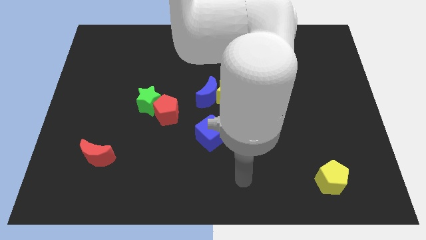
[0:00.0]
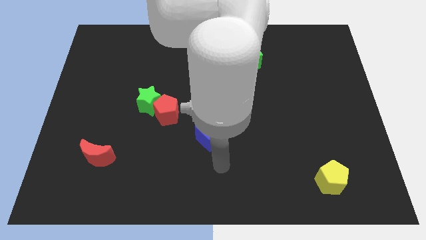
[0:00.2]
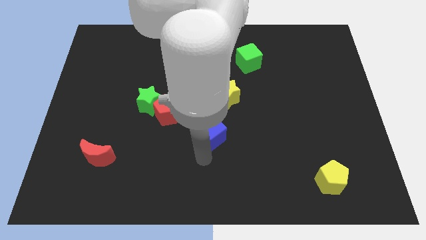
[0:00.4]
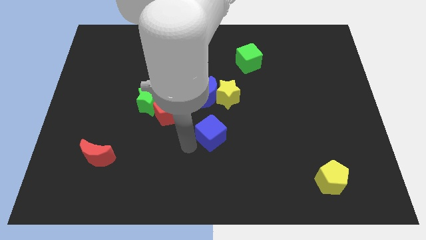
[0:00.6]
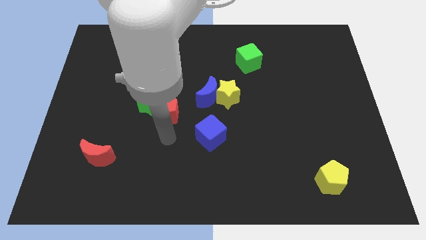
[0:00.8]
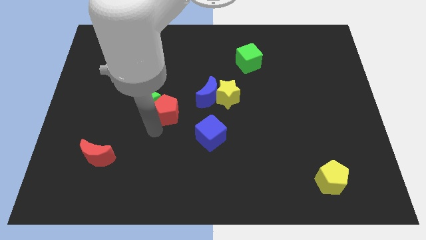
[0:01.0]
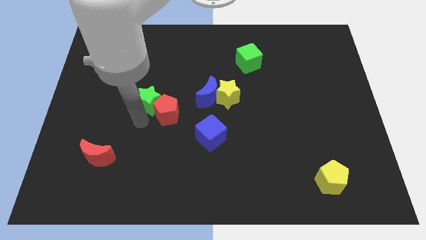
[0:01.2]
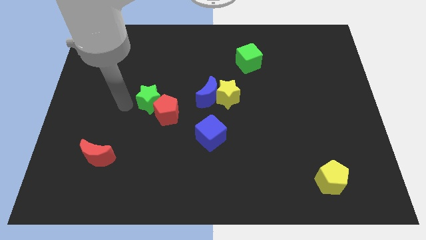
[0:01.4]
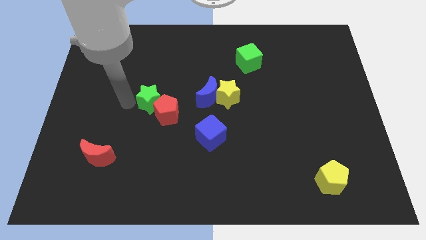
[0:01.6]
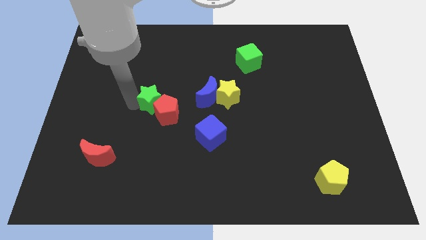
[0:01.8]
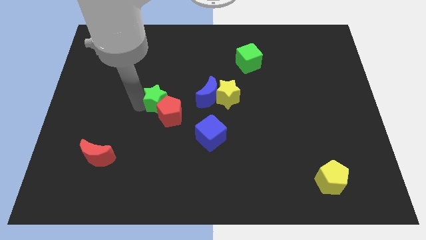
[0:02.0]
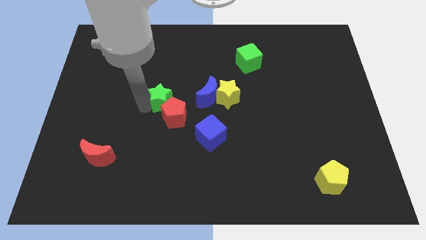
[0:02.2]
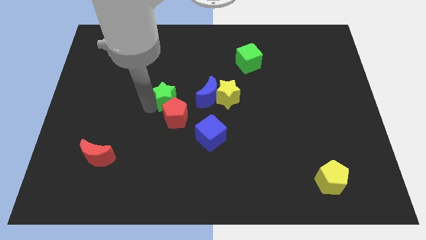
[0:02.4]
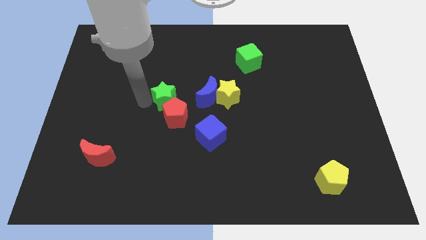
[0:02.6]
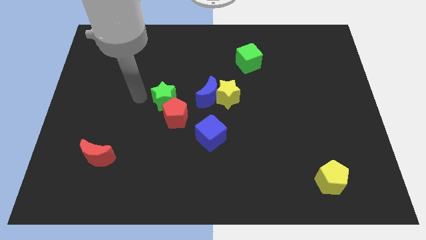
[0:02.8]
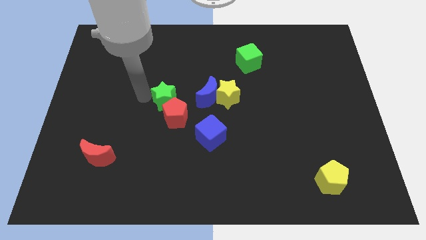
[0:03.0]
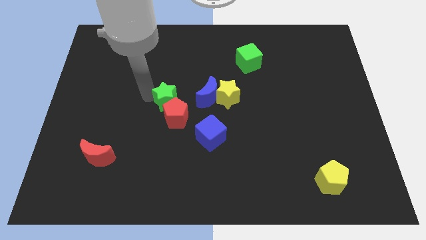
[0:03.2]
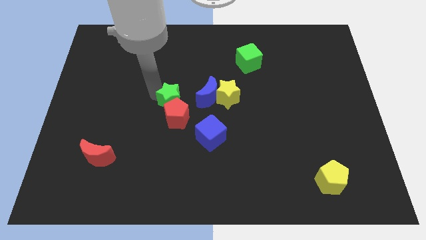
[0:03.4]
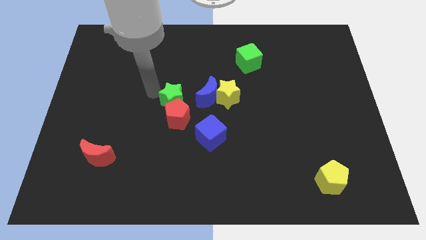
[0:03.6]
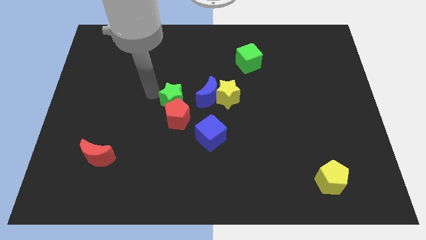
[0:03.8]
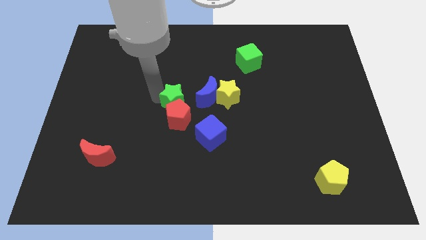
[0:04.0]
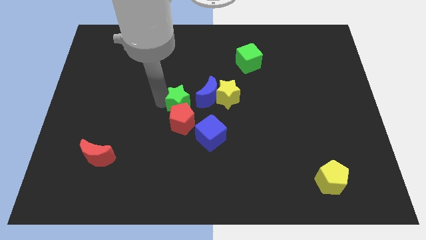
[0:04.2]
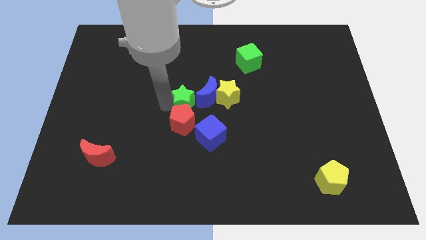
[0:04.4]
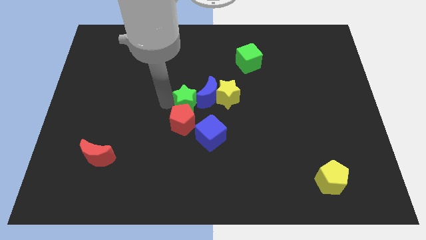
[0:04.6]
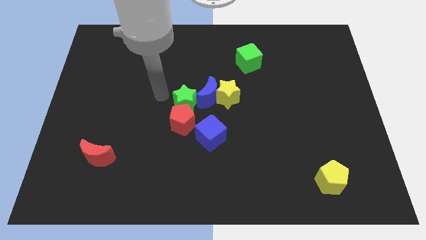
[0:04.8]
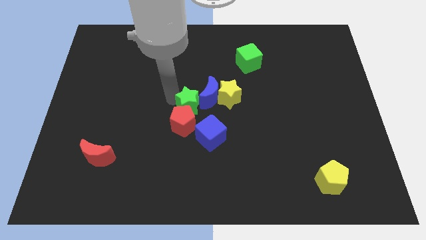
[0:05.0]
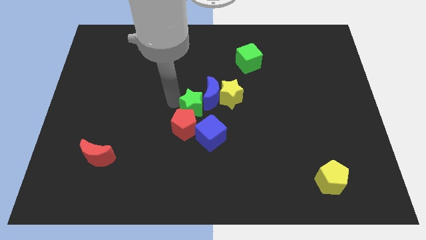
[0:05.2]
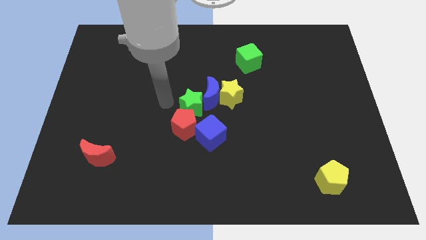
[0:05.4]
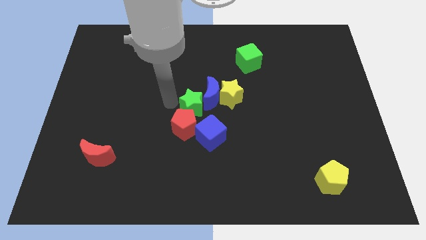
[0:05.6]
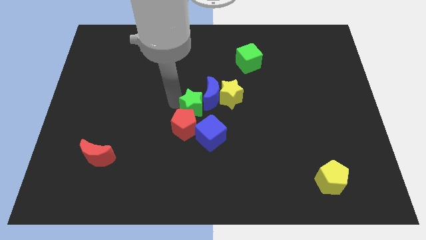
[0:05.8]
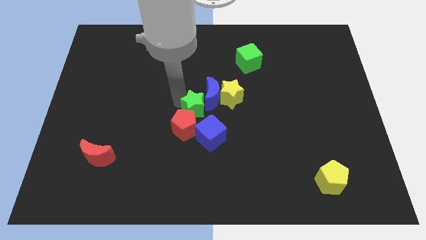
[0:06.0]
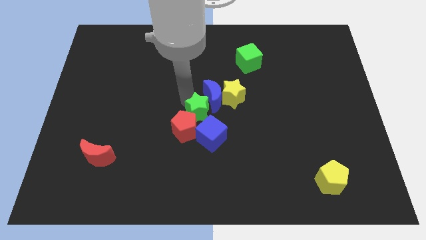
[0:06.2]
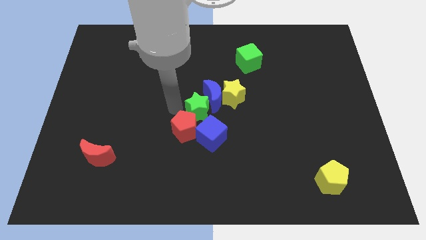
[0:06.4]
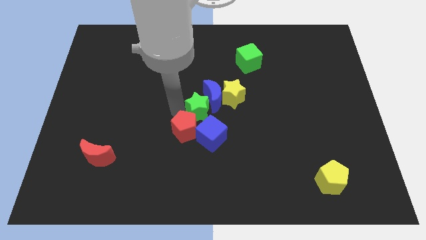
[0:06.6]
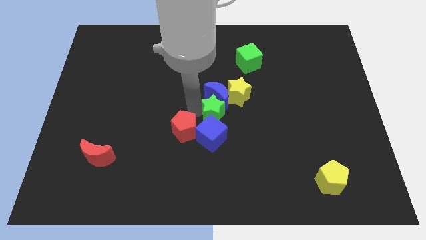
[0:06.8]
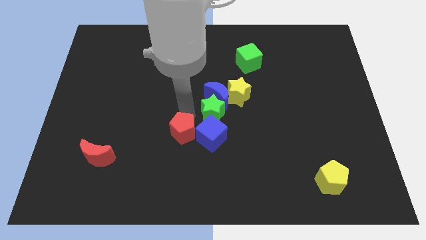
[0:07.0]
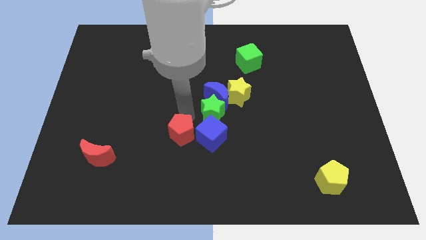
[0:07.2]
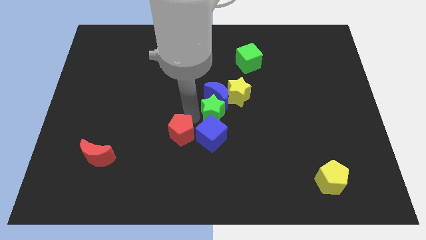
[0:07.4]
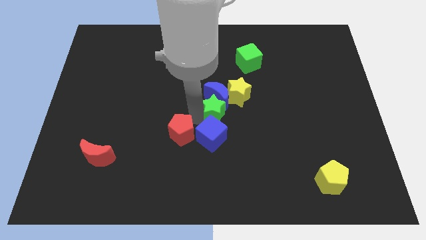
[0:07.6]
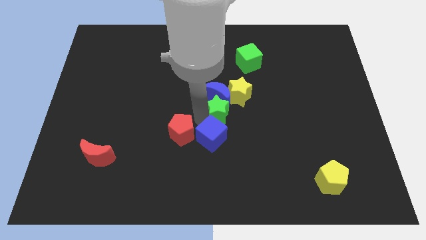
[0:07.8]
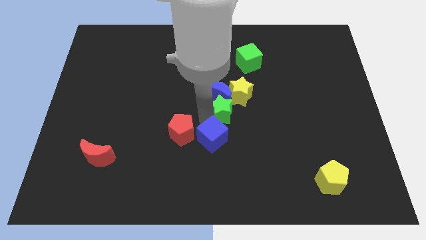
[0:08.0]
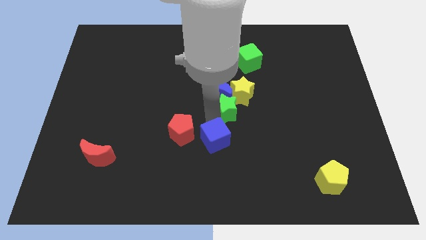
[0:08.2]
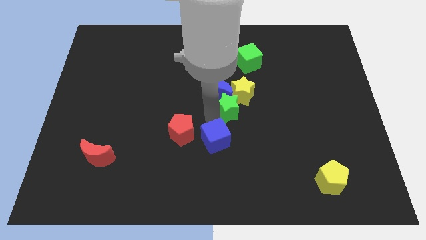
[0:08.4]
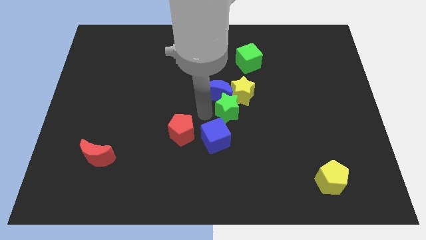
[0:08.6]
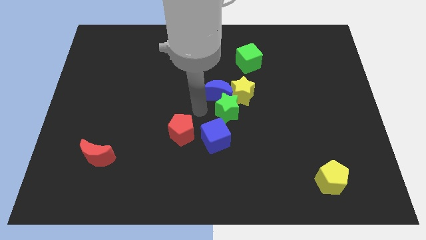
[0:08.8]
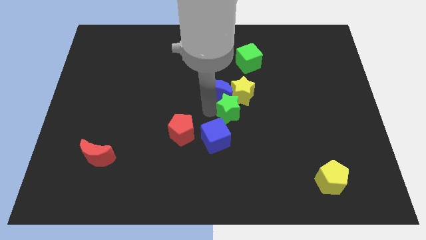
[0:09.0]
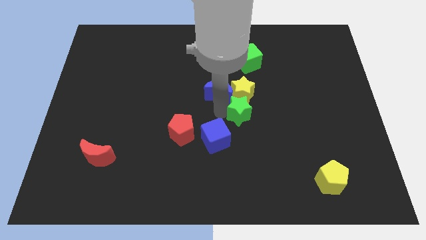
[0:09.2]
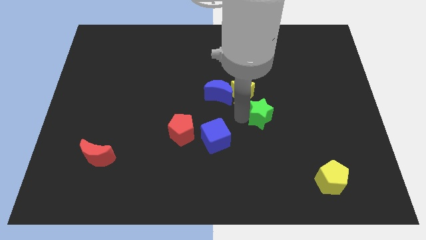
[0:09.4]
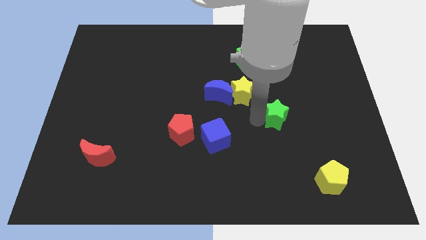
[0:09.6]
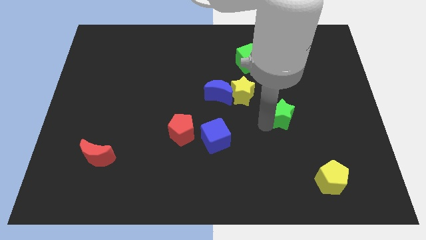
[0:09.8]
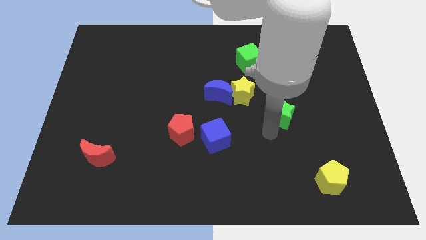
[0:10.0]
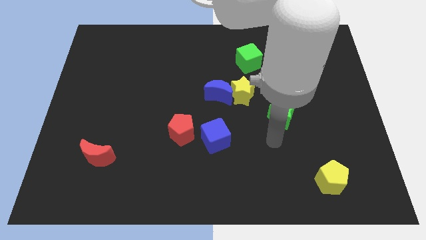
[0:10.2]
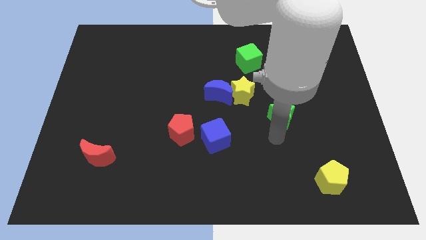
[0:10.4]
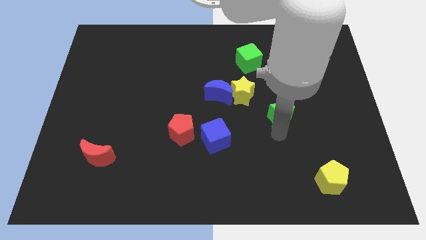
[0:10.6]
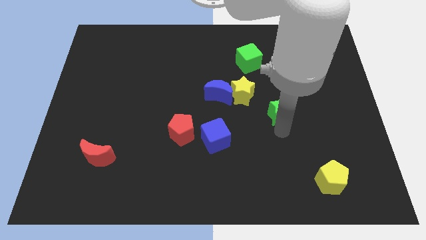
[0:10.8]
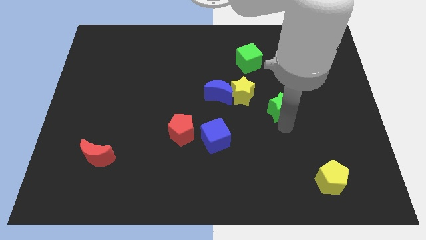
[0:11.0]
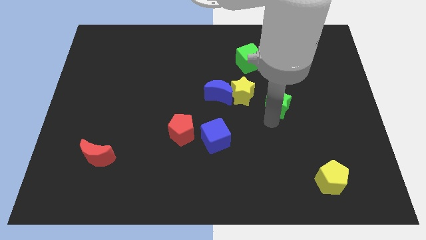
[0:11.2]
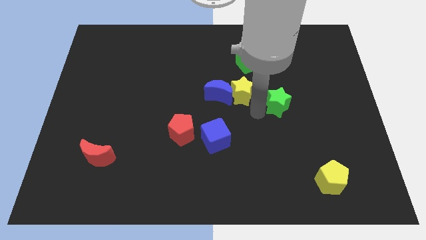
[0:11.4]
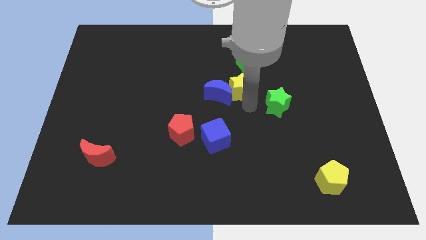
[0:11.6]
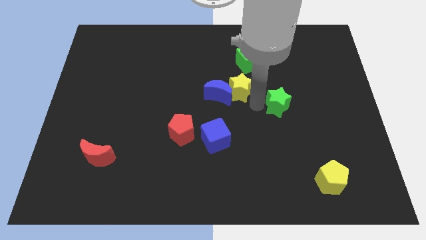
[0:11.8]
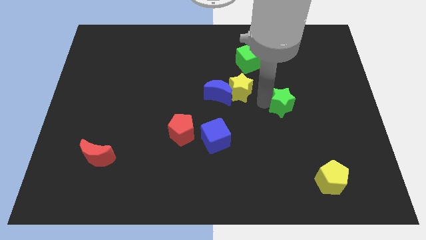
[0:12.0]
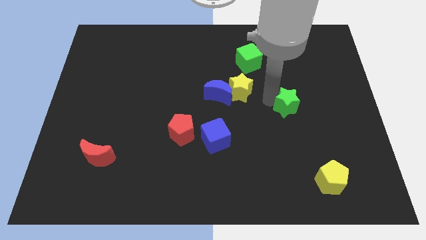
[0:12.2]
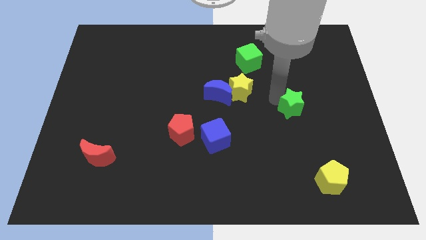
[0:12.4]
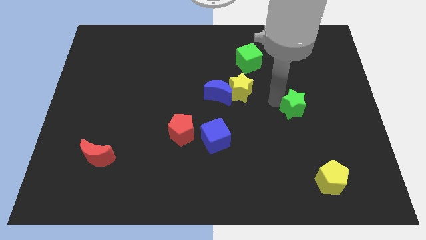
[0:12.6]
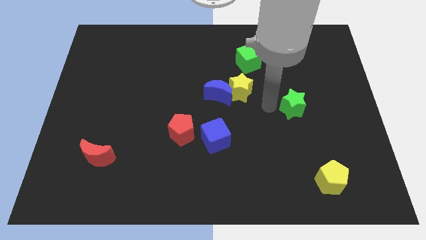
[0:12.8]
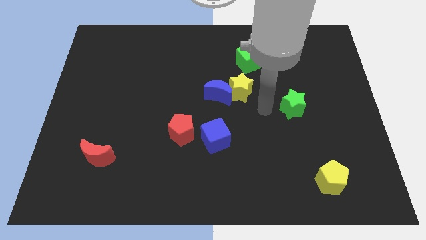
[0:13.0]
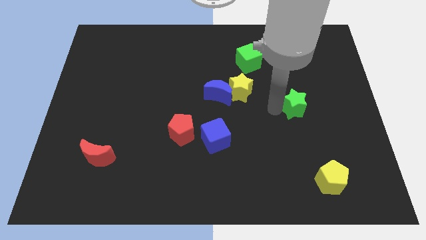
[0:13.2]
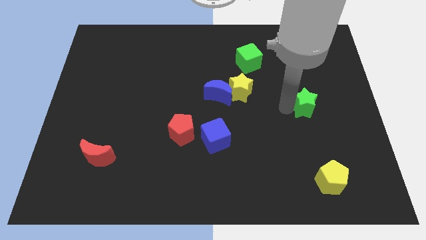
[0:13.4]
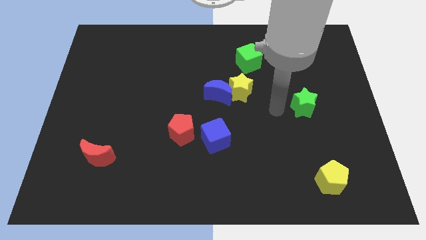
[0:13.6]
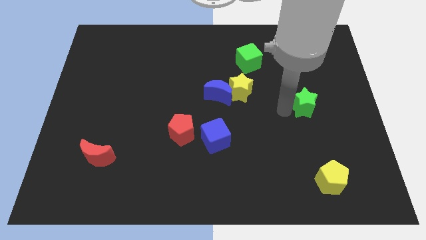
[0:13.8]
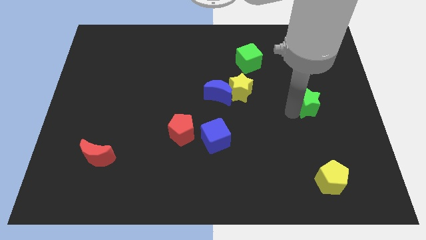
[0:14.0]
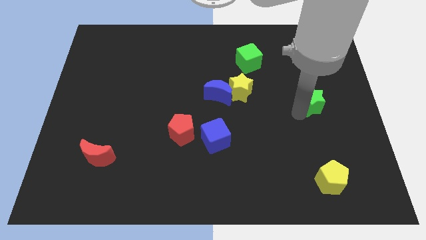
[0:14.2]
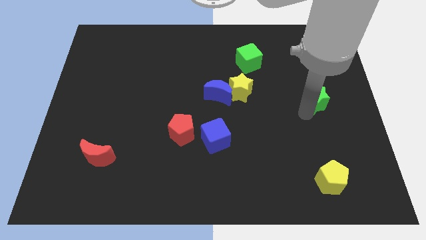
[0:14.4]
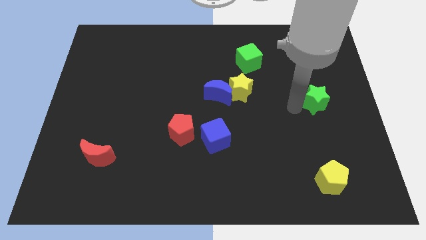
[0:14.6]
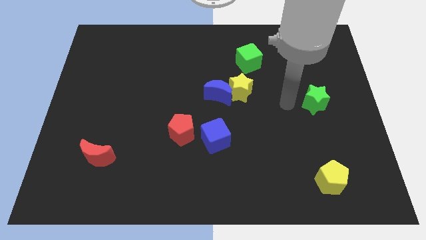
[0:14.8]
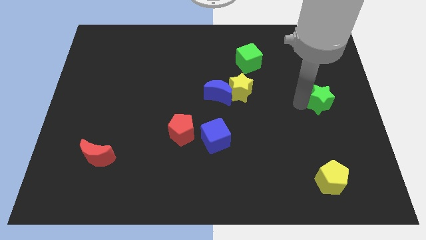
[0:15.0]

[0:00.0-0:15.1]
move the green star to the right side
